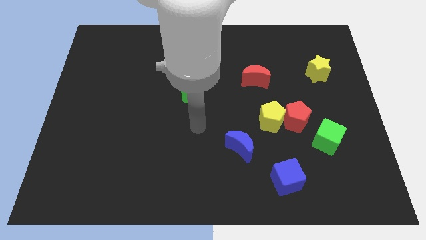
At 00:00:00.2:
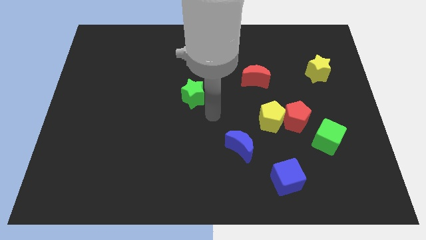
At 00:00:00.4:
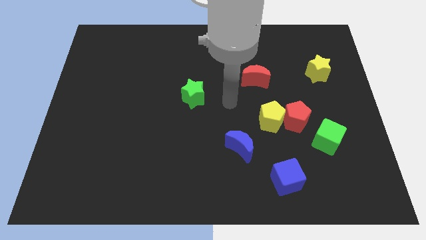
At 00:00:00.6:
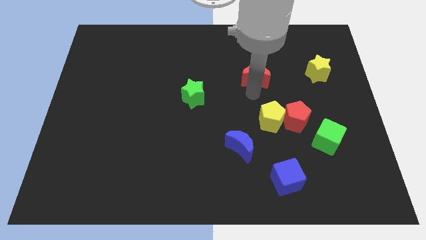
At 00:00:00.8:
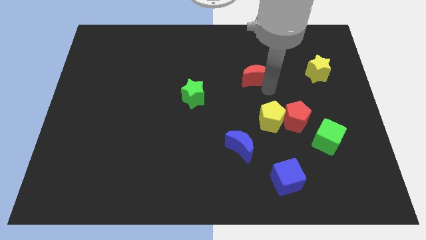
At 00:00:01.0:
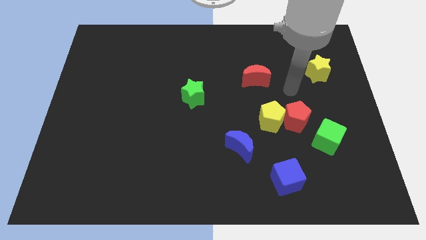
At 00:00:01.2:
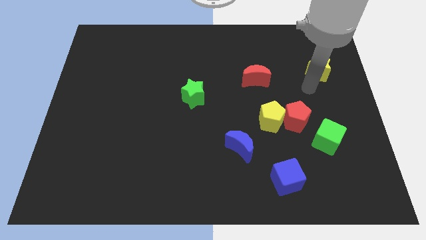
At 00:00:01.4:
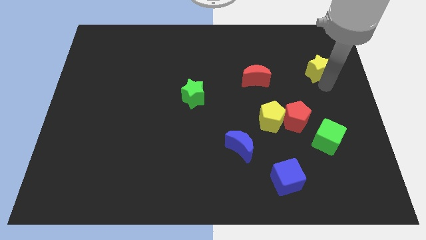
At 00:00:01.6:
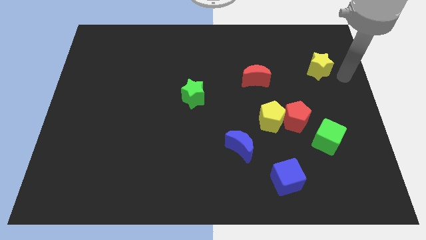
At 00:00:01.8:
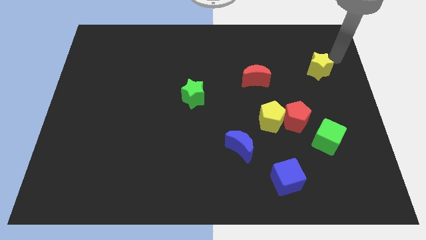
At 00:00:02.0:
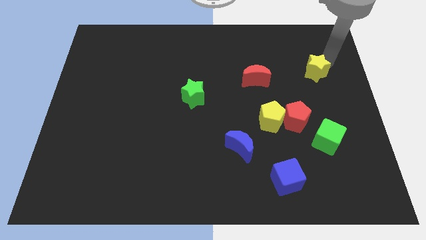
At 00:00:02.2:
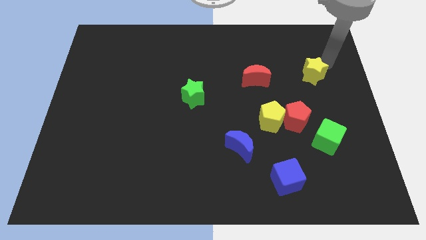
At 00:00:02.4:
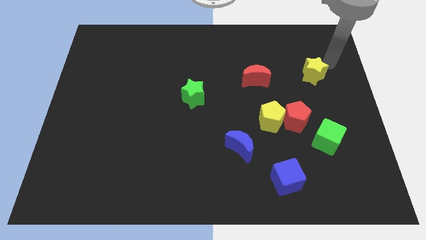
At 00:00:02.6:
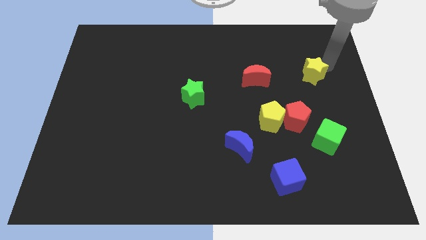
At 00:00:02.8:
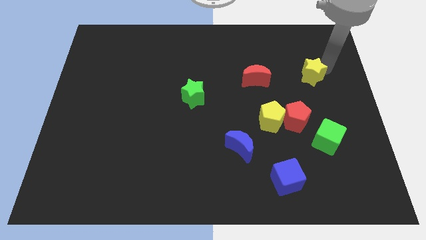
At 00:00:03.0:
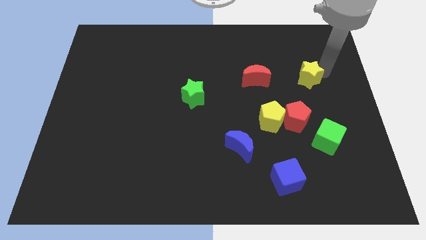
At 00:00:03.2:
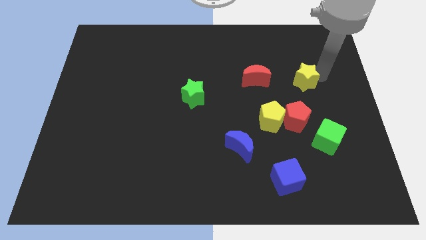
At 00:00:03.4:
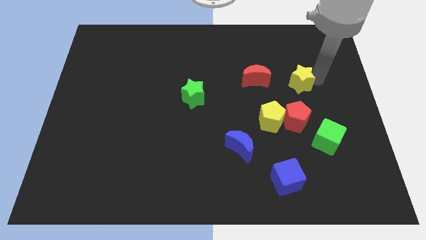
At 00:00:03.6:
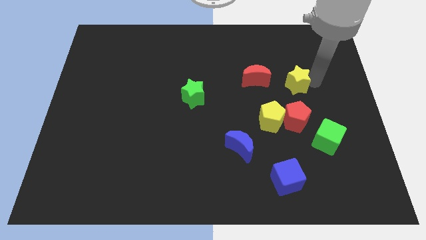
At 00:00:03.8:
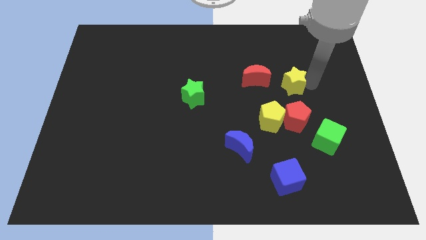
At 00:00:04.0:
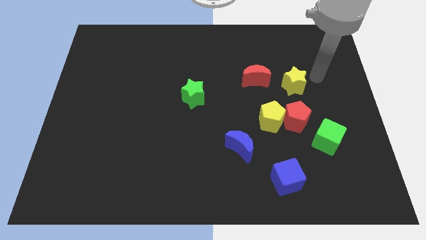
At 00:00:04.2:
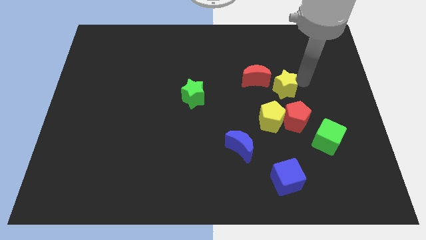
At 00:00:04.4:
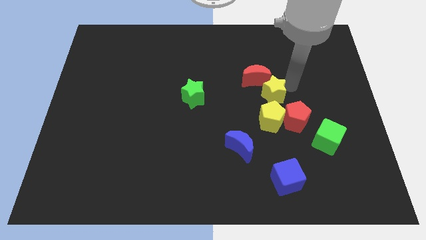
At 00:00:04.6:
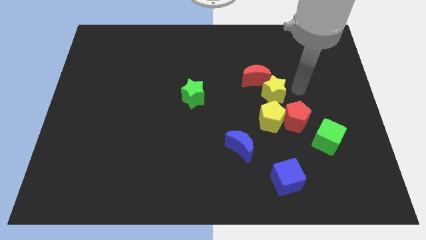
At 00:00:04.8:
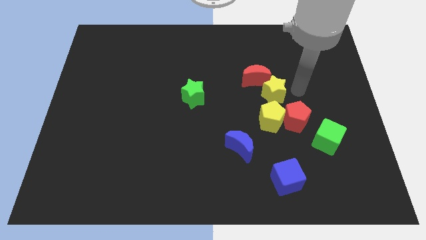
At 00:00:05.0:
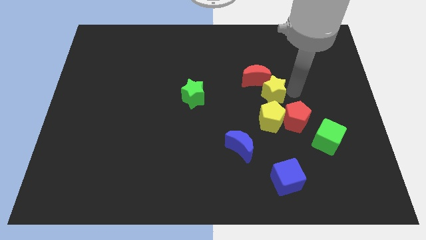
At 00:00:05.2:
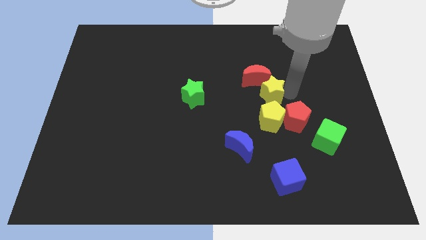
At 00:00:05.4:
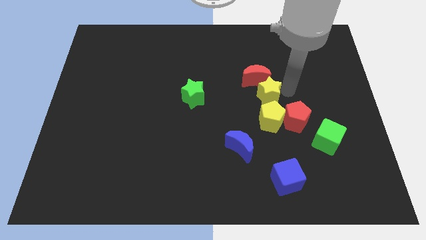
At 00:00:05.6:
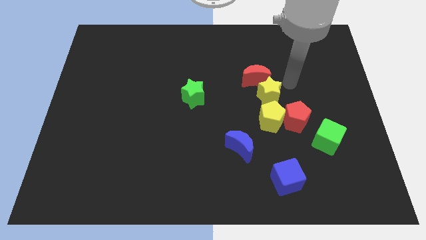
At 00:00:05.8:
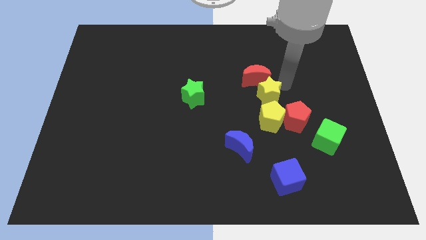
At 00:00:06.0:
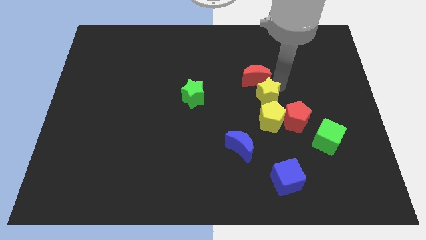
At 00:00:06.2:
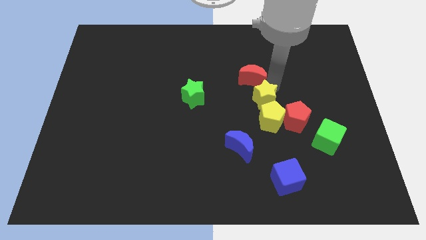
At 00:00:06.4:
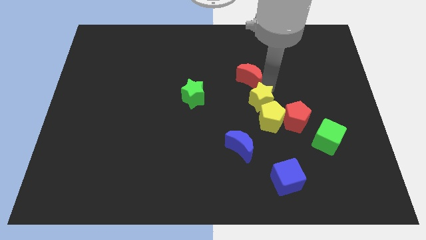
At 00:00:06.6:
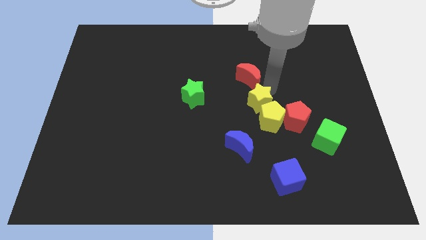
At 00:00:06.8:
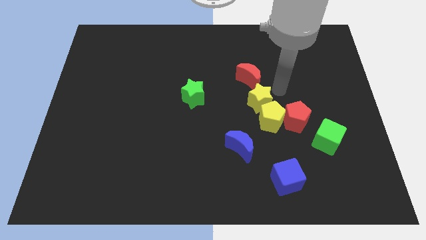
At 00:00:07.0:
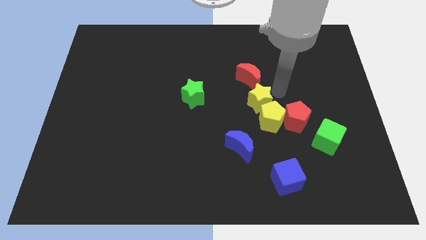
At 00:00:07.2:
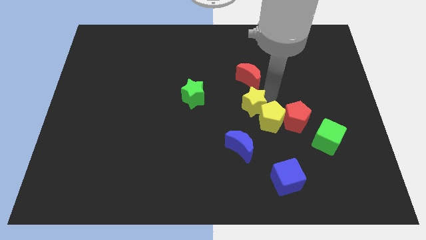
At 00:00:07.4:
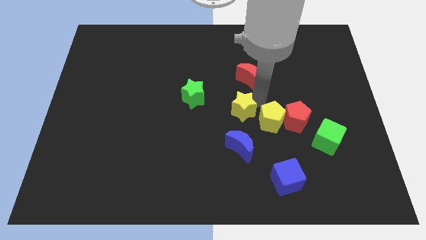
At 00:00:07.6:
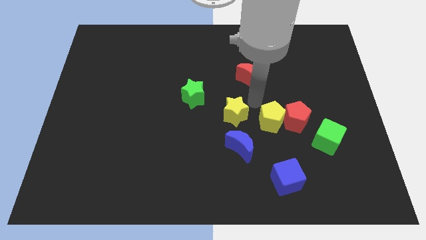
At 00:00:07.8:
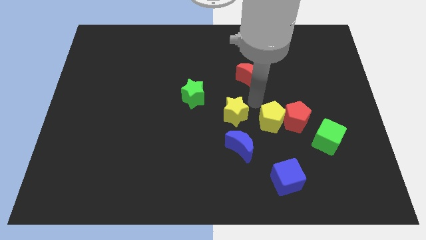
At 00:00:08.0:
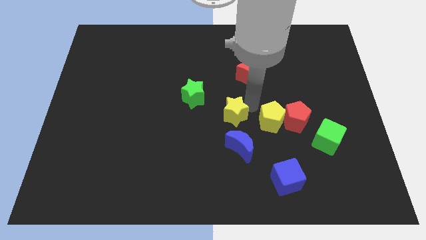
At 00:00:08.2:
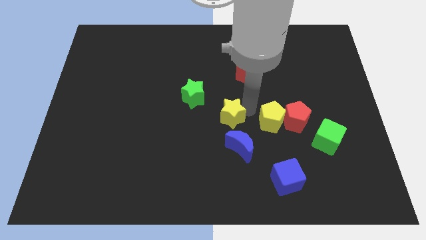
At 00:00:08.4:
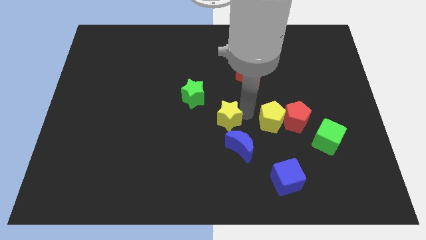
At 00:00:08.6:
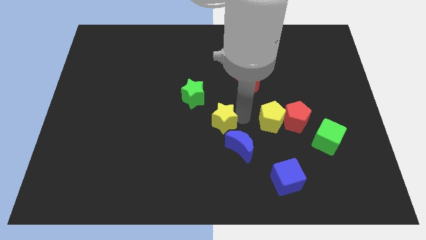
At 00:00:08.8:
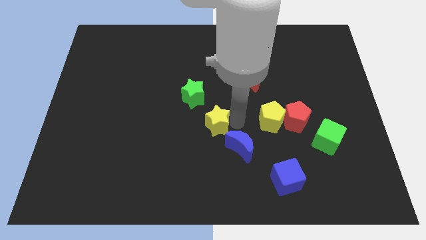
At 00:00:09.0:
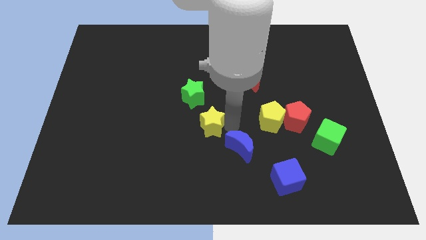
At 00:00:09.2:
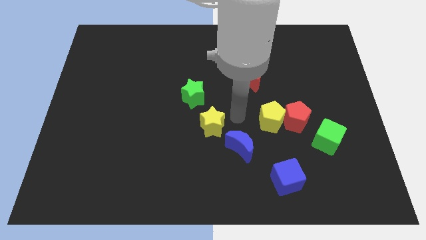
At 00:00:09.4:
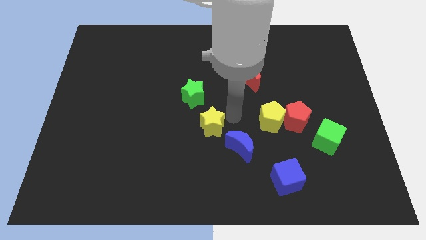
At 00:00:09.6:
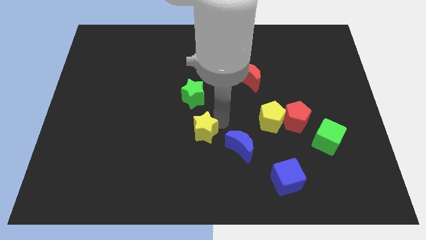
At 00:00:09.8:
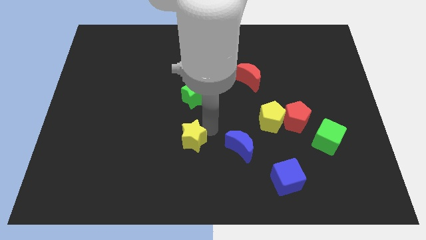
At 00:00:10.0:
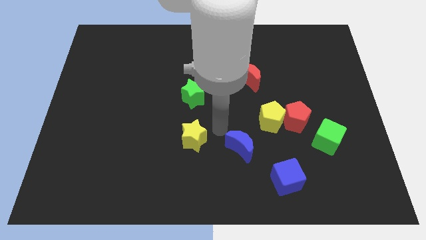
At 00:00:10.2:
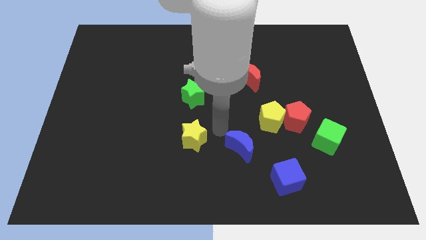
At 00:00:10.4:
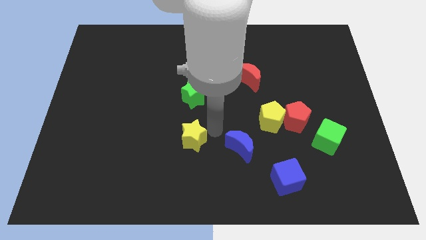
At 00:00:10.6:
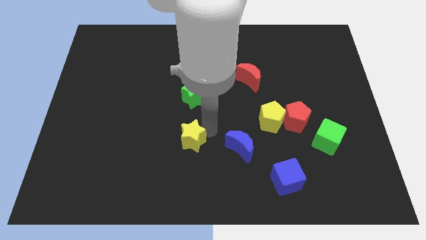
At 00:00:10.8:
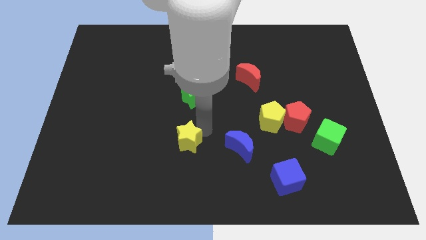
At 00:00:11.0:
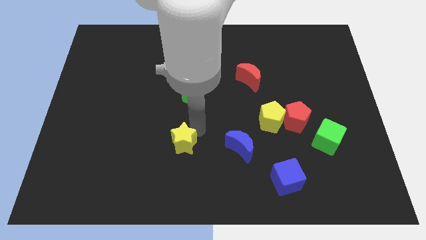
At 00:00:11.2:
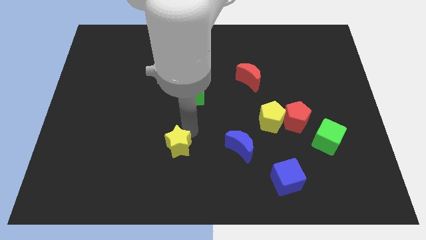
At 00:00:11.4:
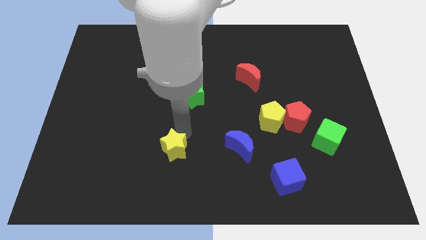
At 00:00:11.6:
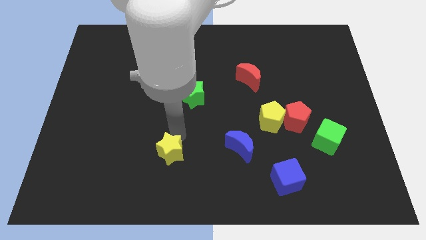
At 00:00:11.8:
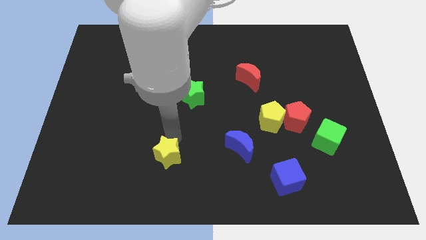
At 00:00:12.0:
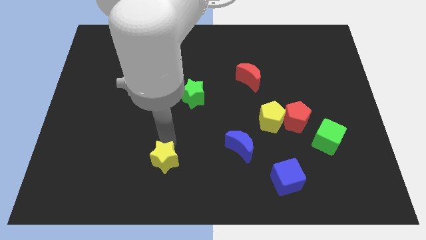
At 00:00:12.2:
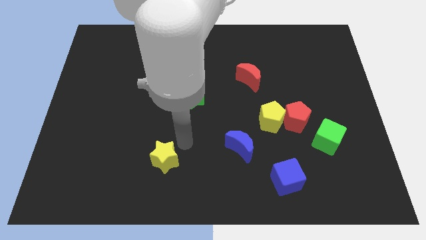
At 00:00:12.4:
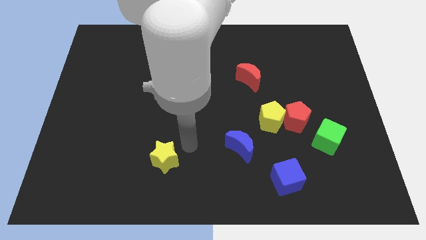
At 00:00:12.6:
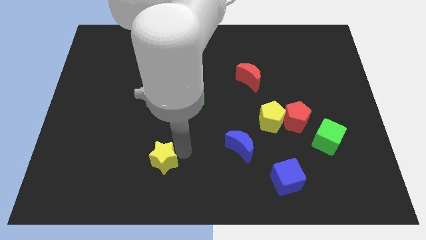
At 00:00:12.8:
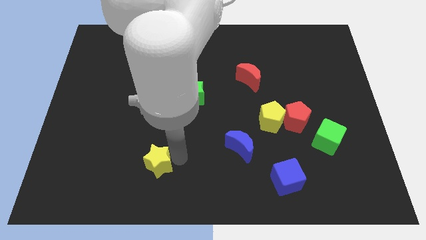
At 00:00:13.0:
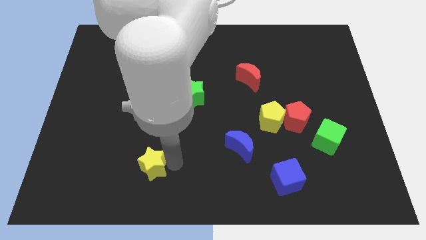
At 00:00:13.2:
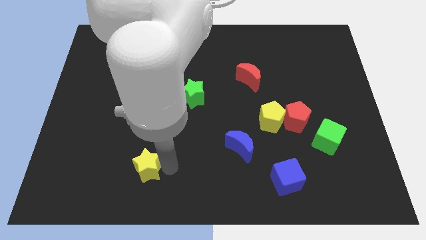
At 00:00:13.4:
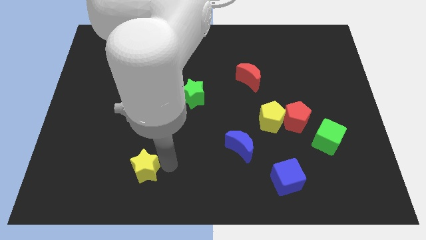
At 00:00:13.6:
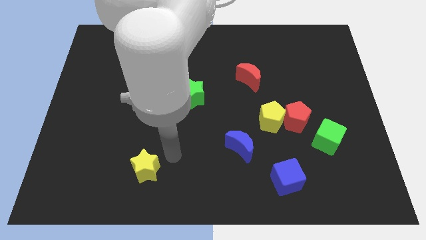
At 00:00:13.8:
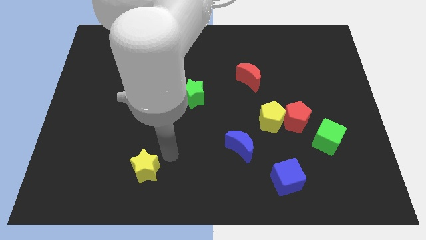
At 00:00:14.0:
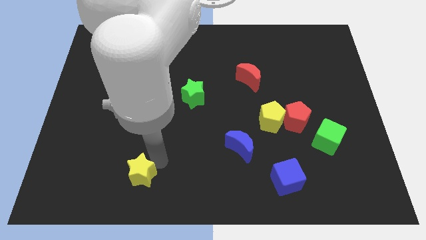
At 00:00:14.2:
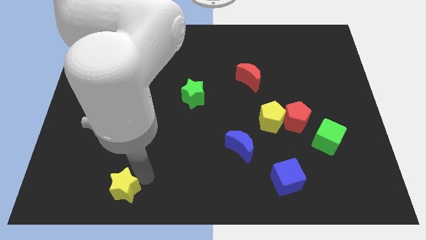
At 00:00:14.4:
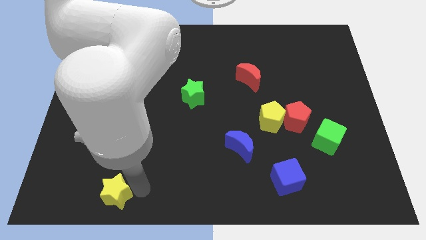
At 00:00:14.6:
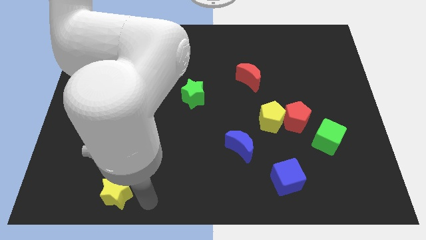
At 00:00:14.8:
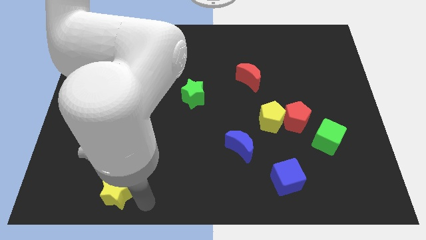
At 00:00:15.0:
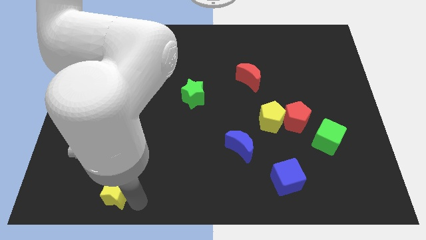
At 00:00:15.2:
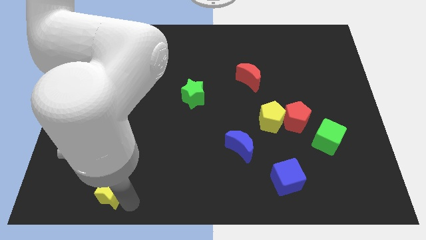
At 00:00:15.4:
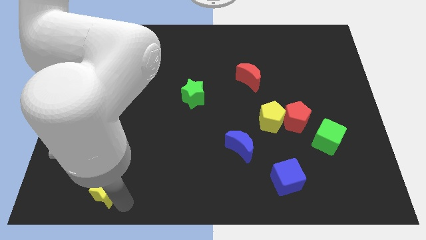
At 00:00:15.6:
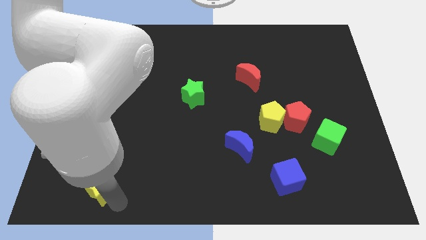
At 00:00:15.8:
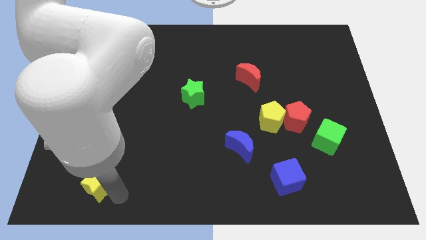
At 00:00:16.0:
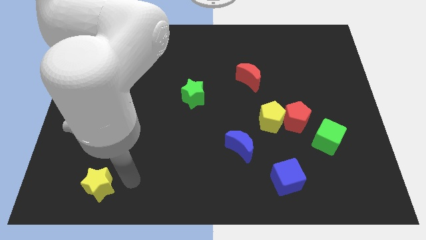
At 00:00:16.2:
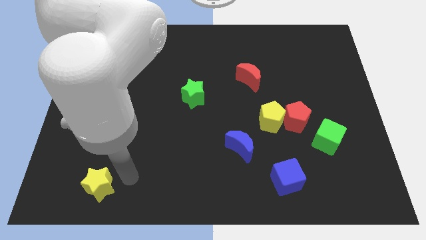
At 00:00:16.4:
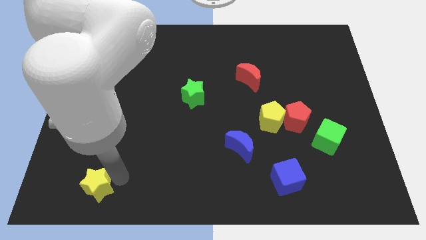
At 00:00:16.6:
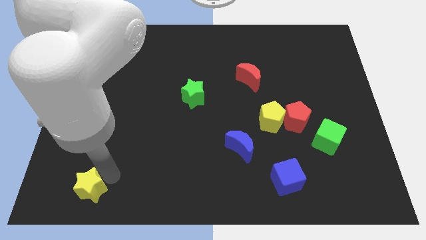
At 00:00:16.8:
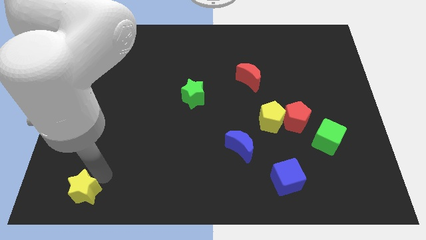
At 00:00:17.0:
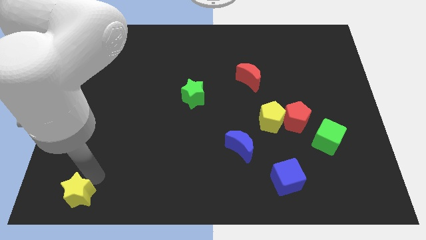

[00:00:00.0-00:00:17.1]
move the yellow star to the bottom left
